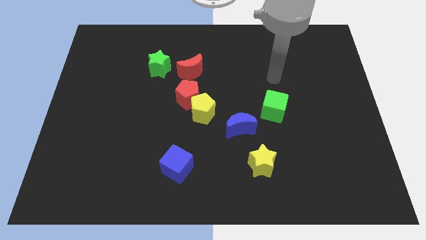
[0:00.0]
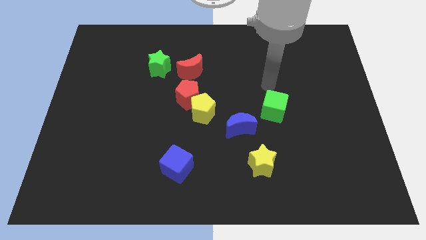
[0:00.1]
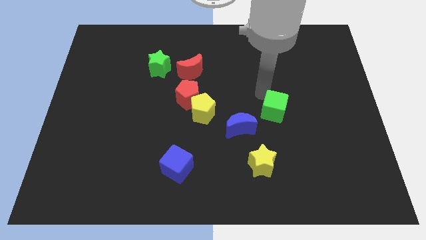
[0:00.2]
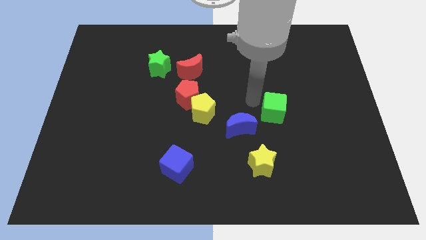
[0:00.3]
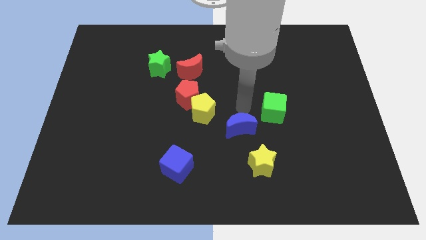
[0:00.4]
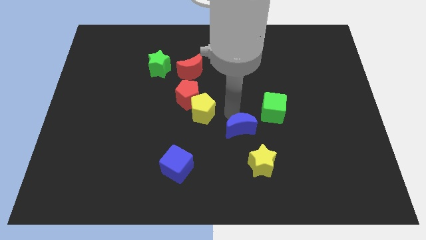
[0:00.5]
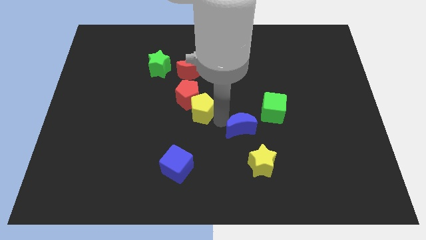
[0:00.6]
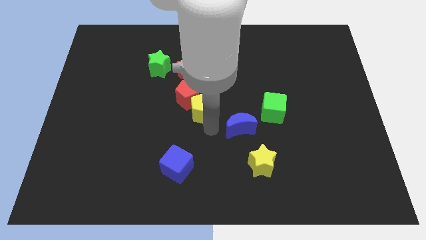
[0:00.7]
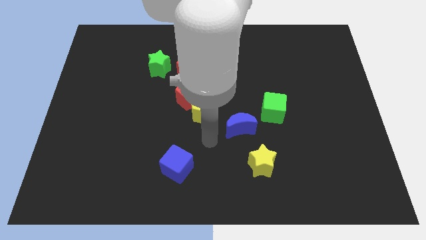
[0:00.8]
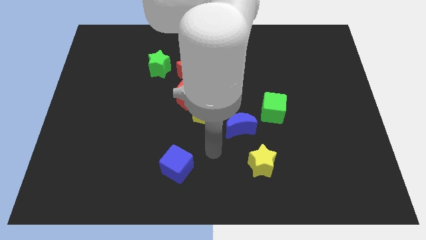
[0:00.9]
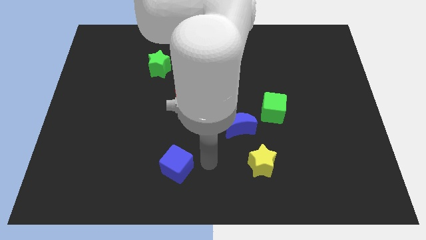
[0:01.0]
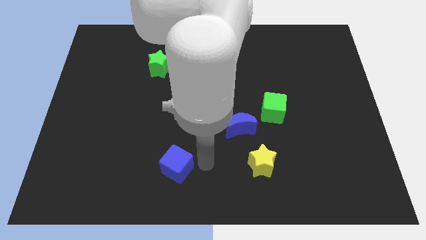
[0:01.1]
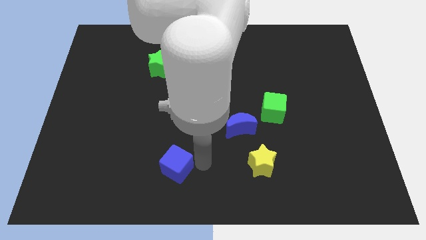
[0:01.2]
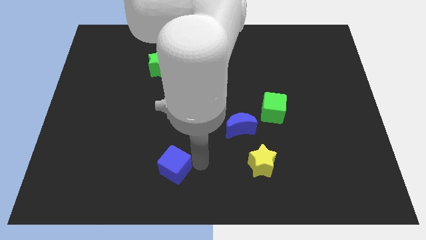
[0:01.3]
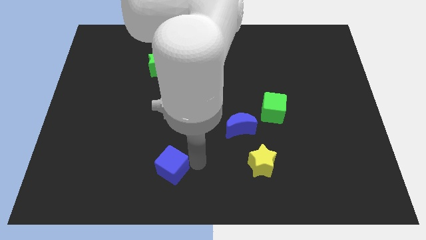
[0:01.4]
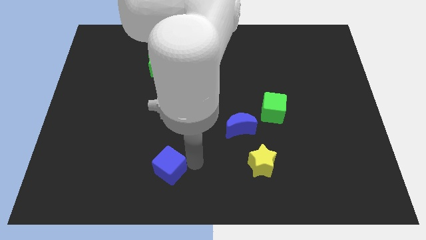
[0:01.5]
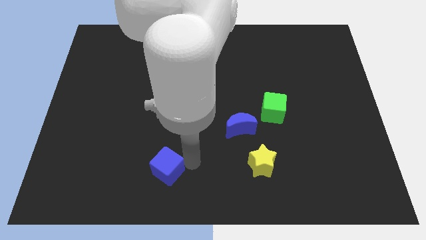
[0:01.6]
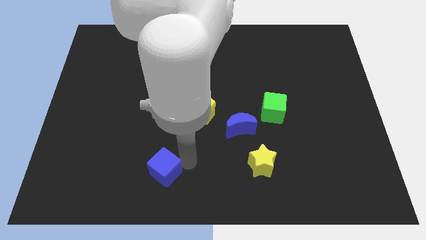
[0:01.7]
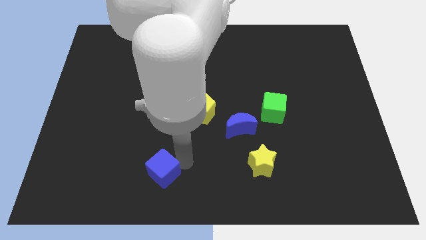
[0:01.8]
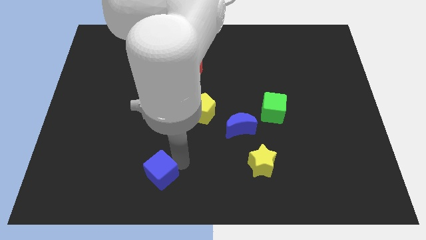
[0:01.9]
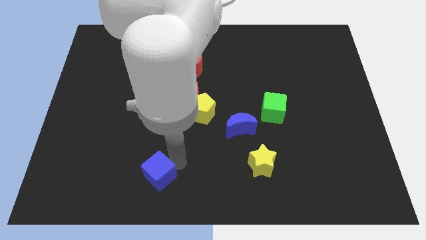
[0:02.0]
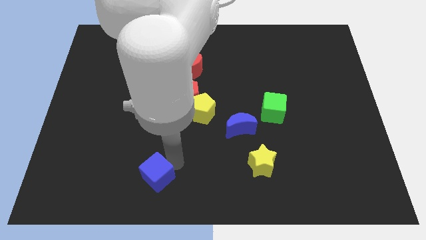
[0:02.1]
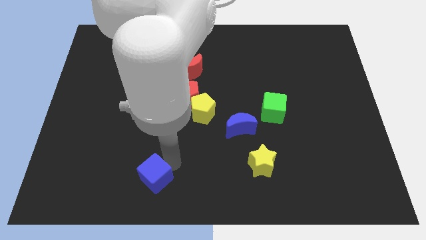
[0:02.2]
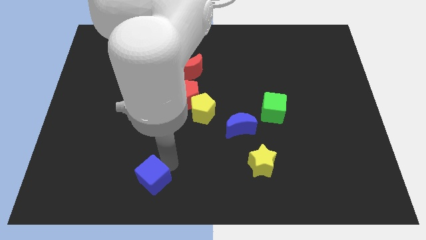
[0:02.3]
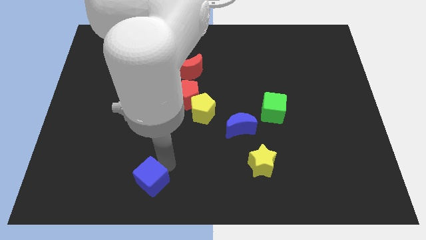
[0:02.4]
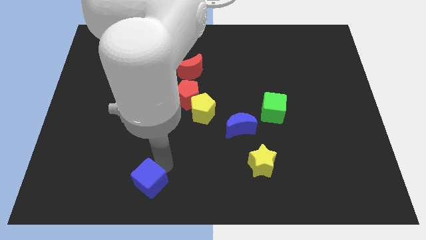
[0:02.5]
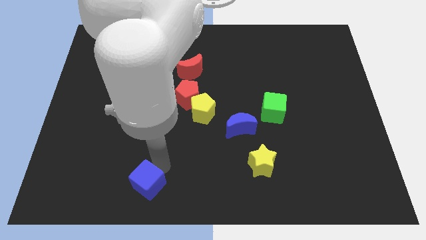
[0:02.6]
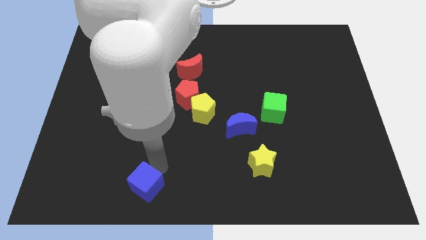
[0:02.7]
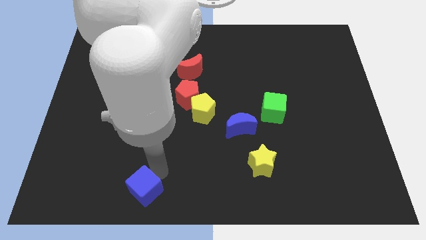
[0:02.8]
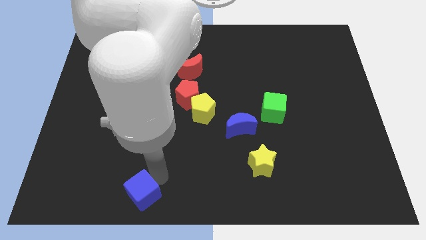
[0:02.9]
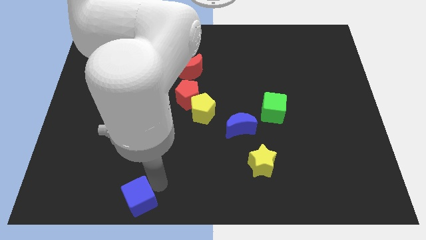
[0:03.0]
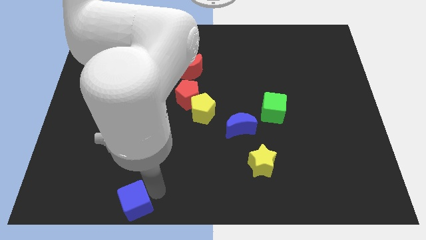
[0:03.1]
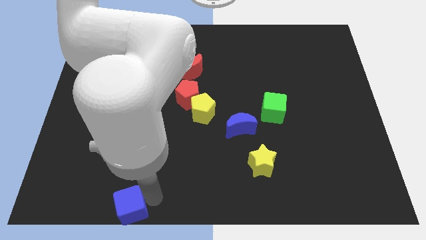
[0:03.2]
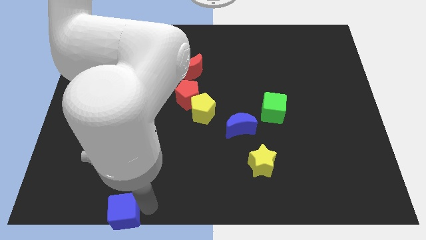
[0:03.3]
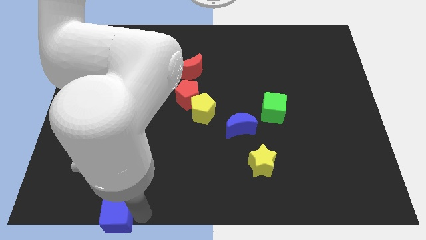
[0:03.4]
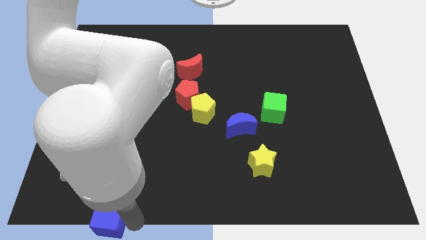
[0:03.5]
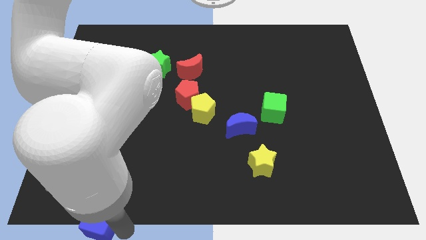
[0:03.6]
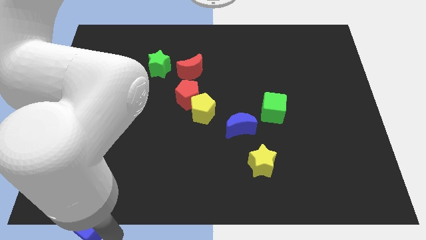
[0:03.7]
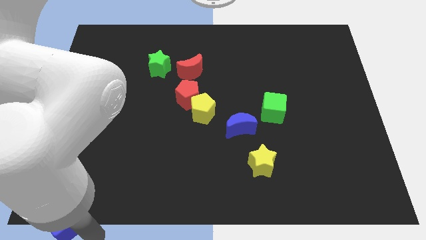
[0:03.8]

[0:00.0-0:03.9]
slide the blue cube a little bit to the left

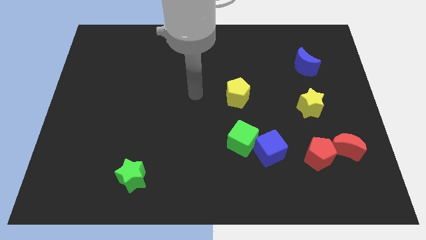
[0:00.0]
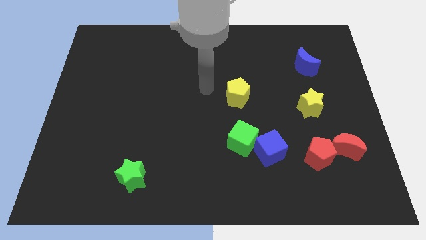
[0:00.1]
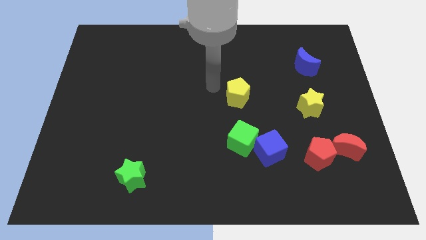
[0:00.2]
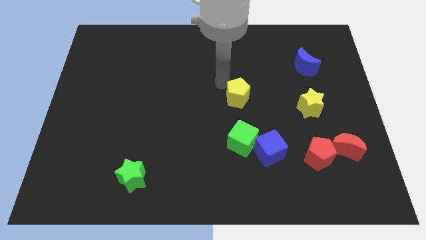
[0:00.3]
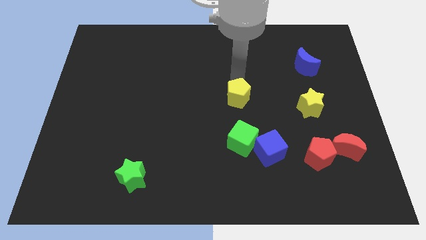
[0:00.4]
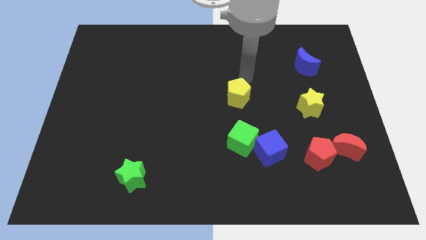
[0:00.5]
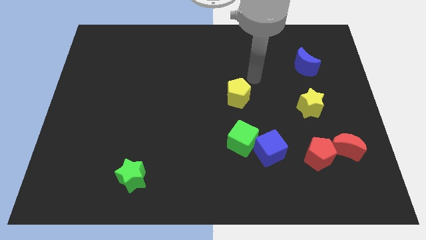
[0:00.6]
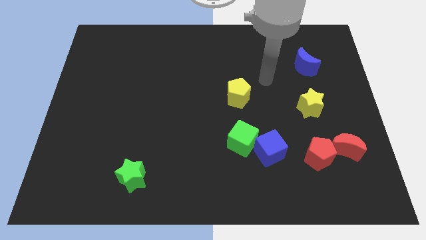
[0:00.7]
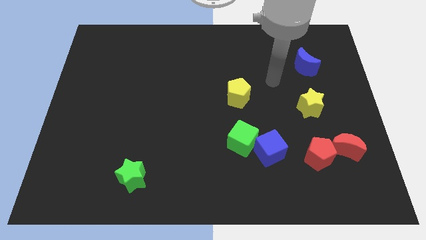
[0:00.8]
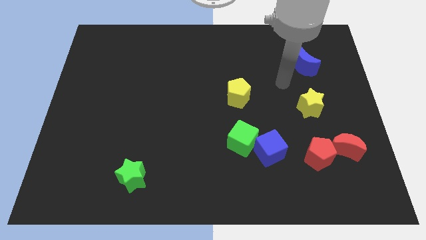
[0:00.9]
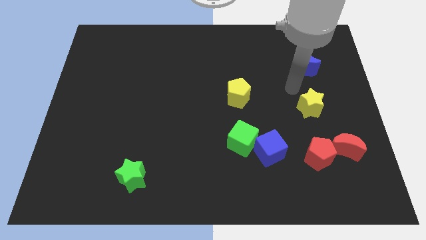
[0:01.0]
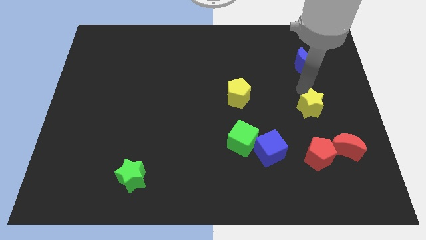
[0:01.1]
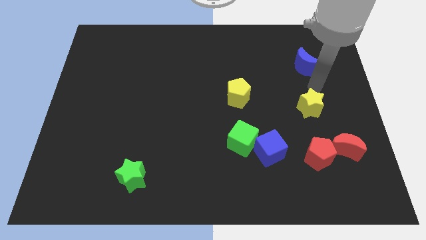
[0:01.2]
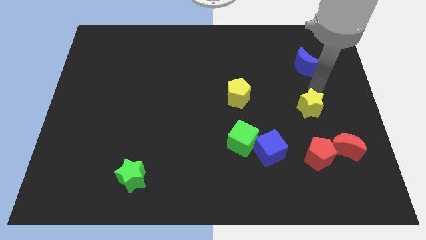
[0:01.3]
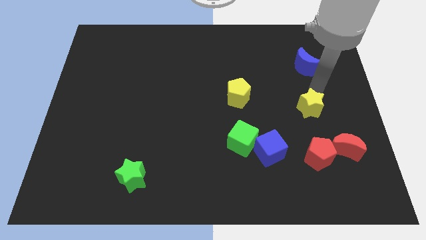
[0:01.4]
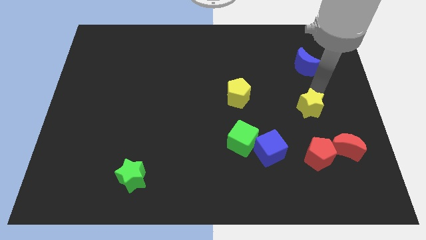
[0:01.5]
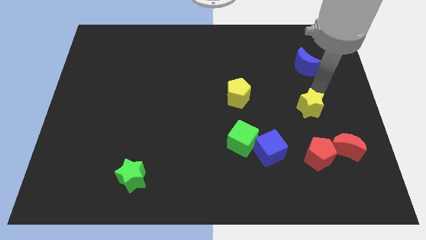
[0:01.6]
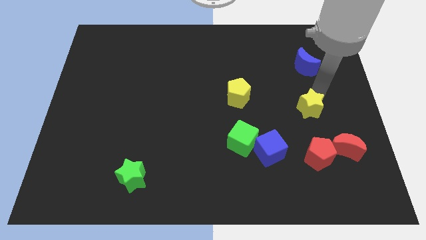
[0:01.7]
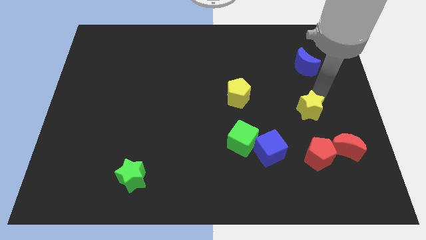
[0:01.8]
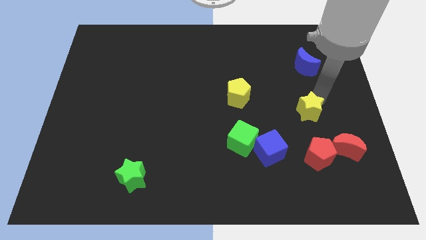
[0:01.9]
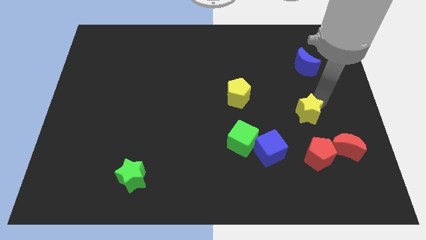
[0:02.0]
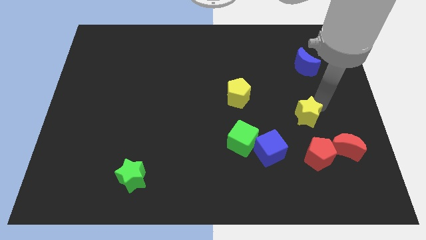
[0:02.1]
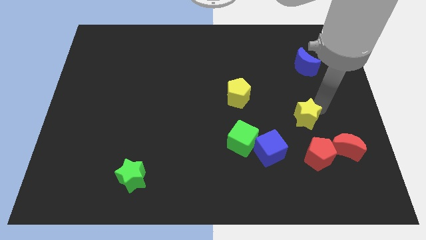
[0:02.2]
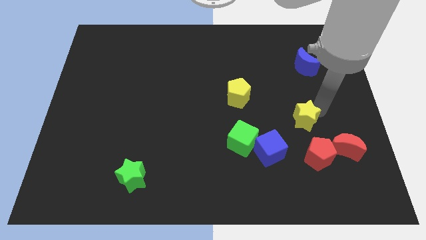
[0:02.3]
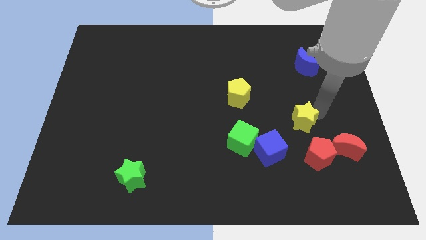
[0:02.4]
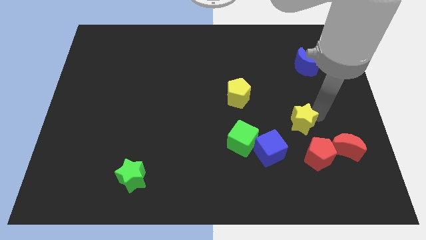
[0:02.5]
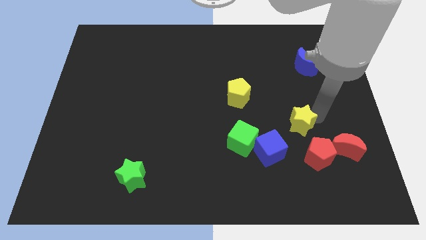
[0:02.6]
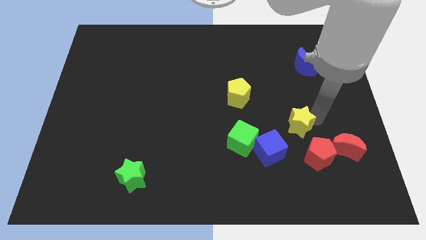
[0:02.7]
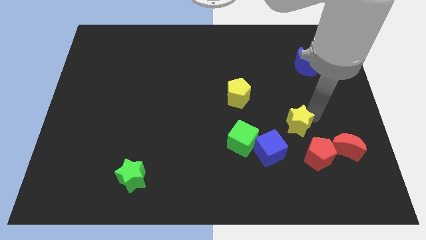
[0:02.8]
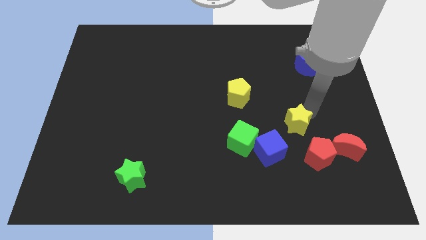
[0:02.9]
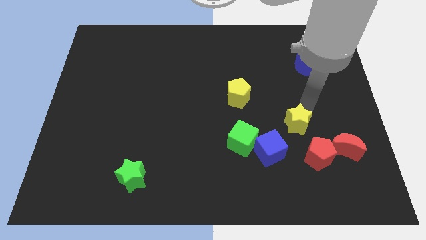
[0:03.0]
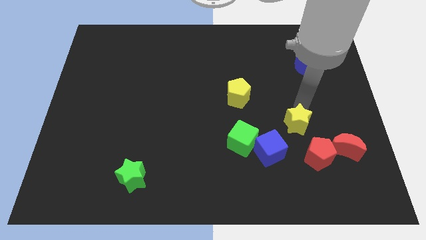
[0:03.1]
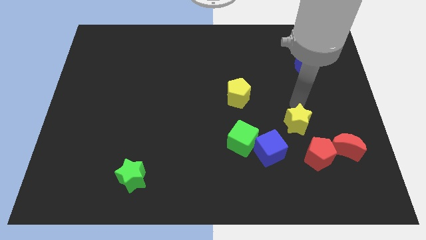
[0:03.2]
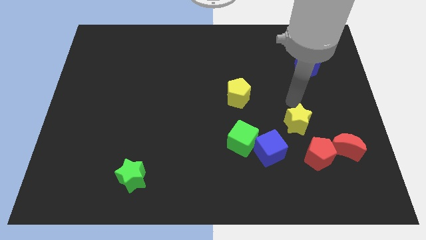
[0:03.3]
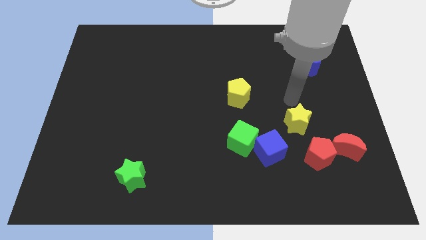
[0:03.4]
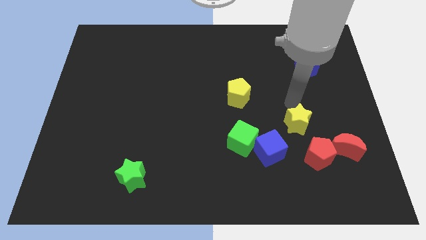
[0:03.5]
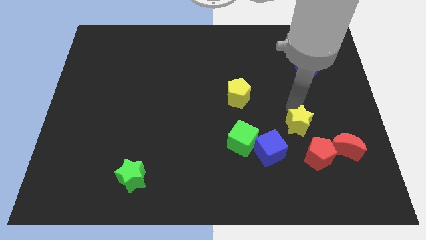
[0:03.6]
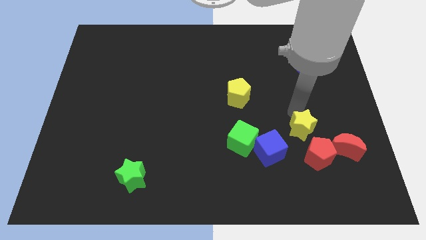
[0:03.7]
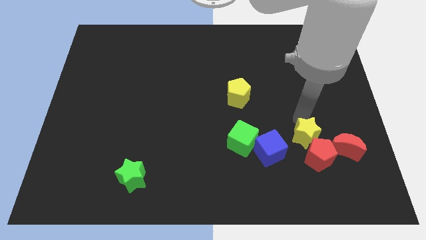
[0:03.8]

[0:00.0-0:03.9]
slide the yellow star a bit down
